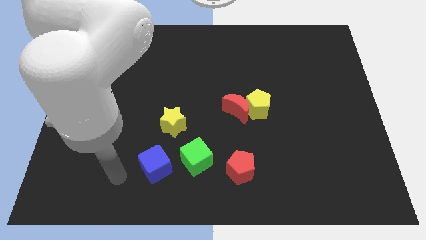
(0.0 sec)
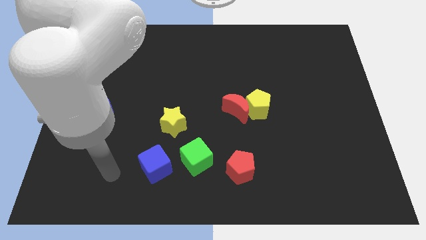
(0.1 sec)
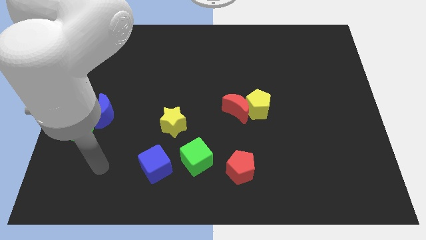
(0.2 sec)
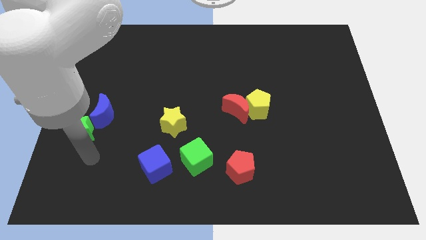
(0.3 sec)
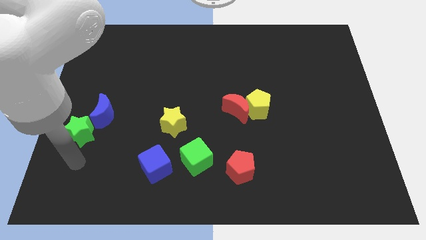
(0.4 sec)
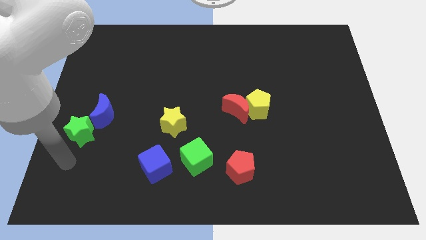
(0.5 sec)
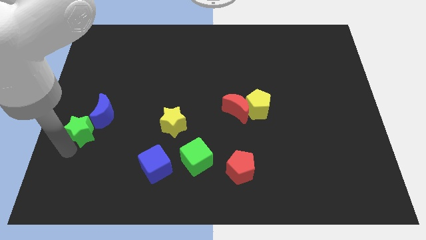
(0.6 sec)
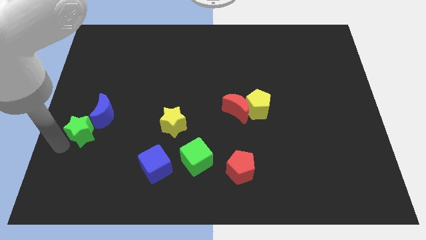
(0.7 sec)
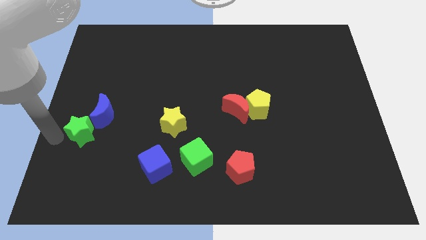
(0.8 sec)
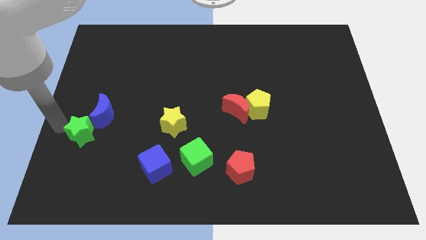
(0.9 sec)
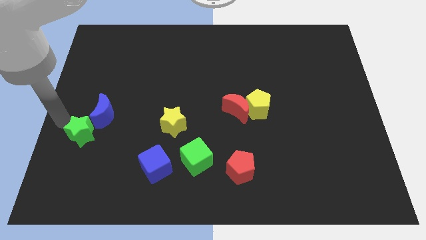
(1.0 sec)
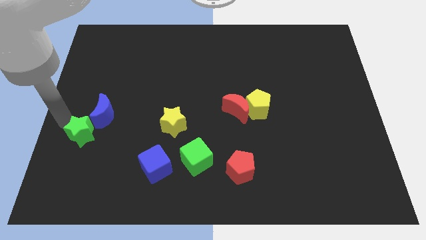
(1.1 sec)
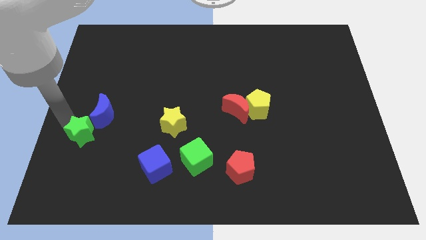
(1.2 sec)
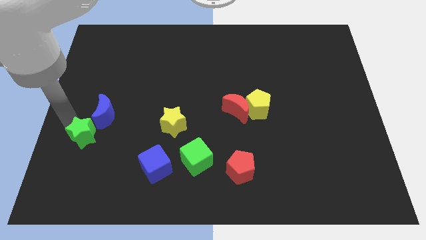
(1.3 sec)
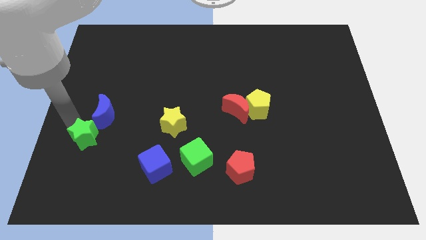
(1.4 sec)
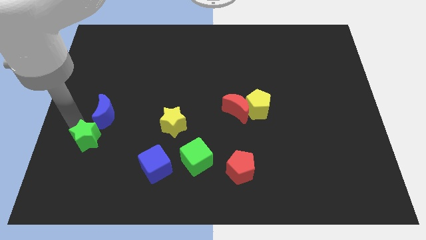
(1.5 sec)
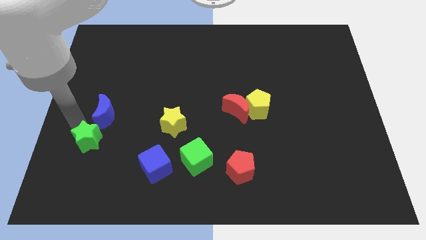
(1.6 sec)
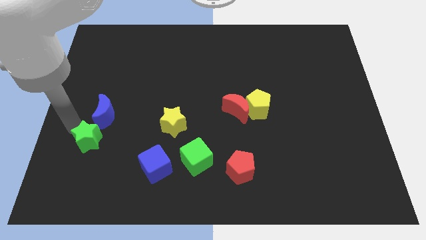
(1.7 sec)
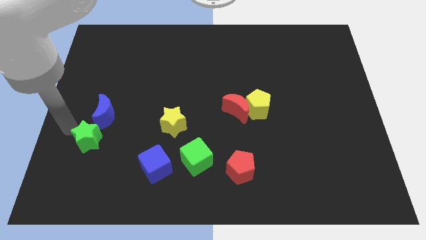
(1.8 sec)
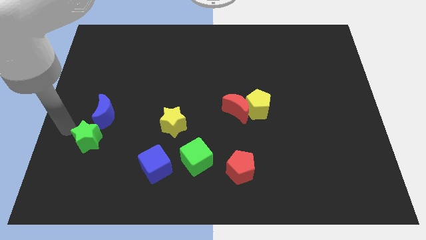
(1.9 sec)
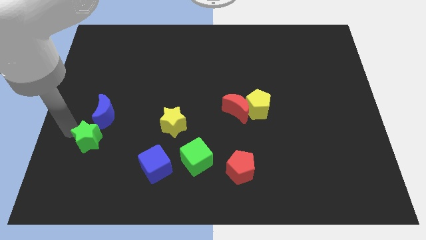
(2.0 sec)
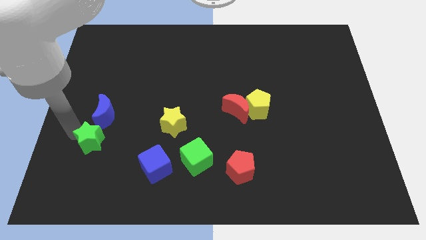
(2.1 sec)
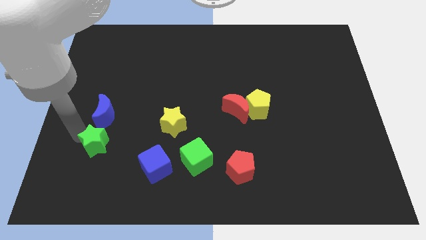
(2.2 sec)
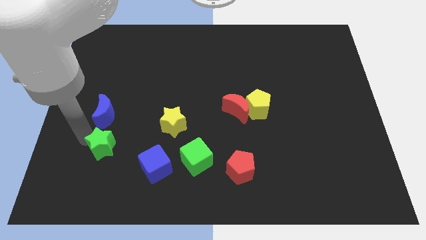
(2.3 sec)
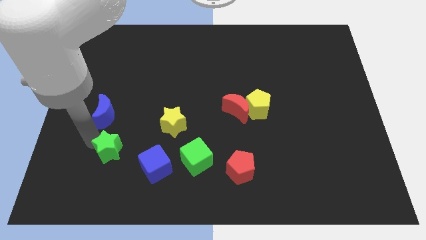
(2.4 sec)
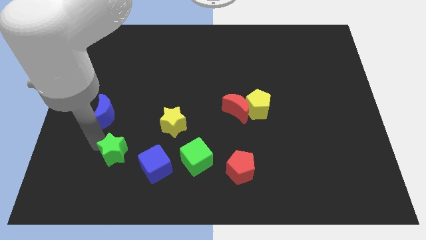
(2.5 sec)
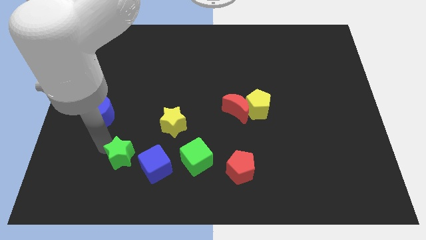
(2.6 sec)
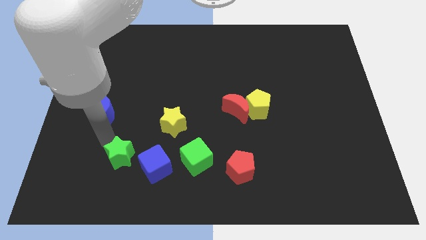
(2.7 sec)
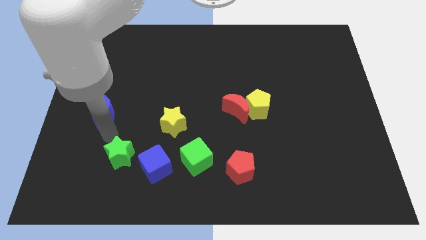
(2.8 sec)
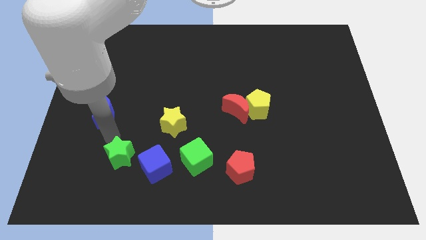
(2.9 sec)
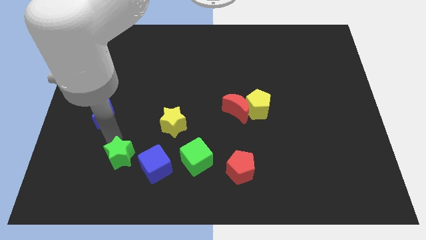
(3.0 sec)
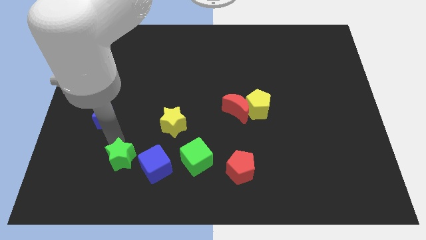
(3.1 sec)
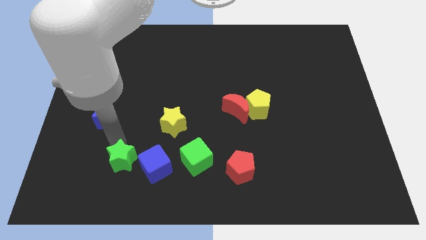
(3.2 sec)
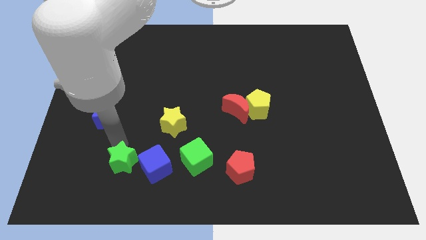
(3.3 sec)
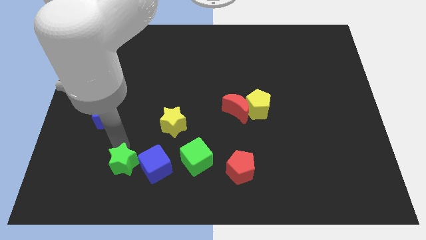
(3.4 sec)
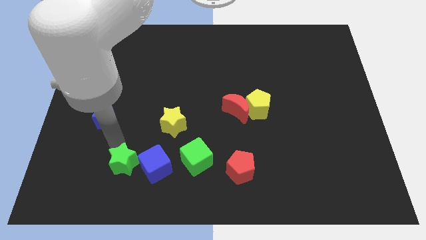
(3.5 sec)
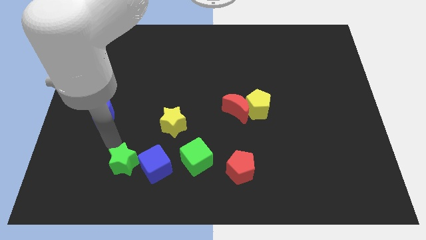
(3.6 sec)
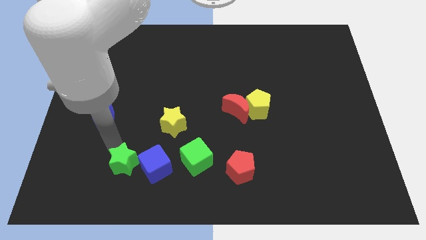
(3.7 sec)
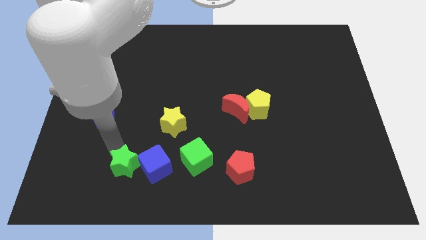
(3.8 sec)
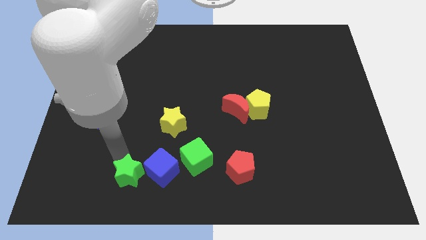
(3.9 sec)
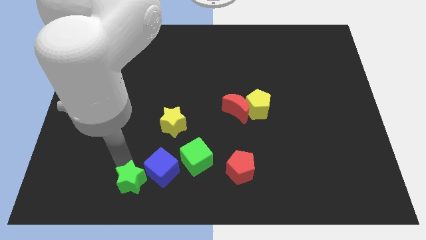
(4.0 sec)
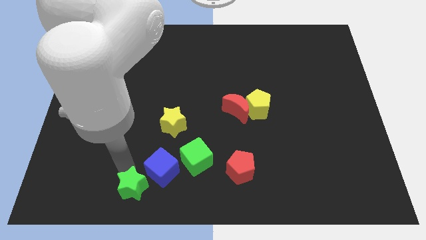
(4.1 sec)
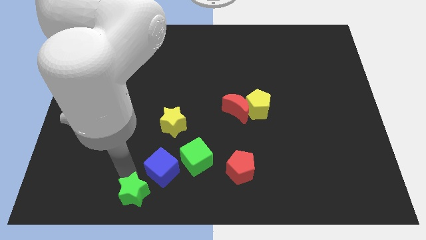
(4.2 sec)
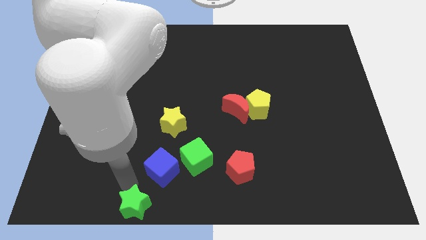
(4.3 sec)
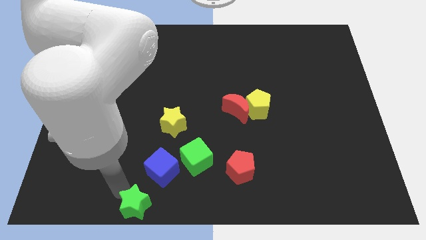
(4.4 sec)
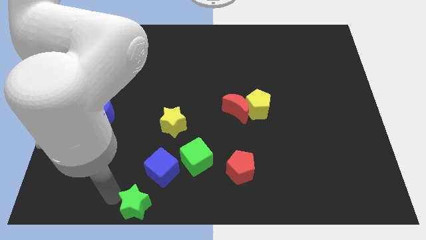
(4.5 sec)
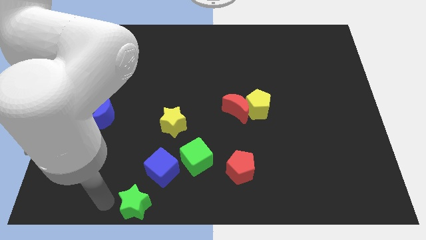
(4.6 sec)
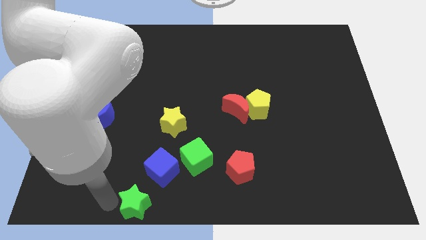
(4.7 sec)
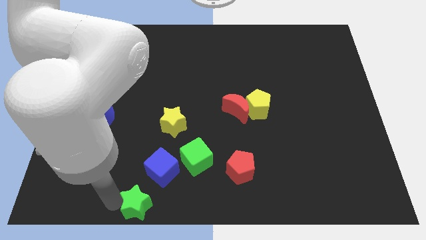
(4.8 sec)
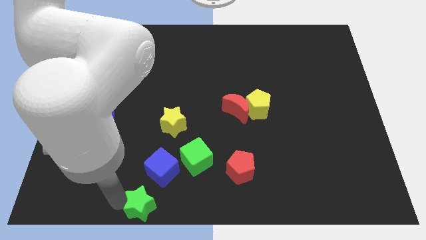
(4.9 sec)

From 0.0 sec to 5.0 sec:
push the green star to the bottom

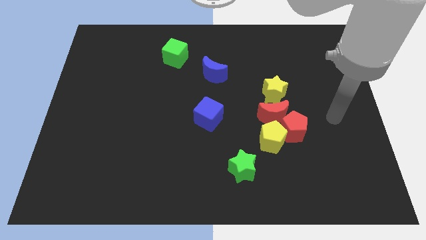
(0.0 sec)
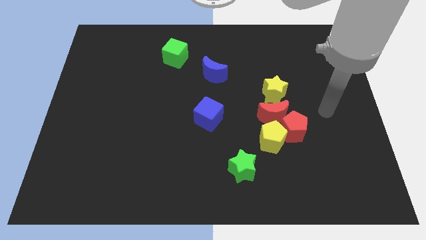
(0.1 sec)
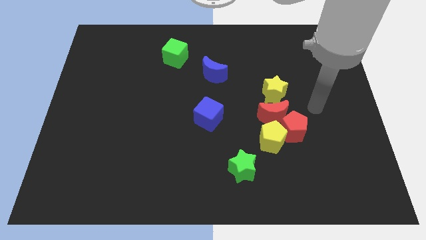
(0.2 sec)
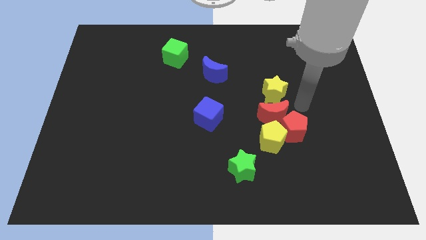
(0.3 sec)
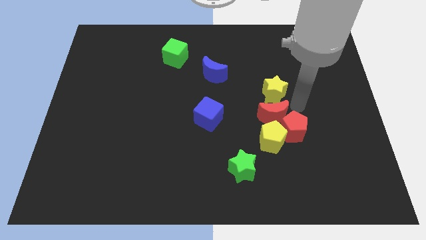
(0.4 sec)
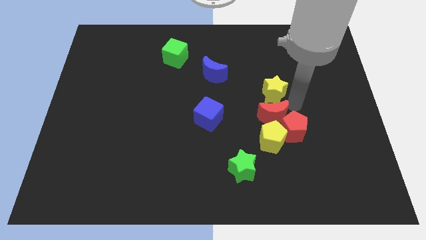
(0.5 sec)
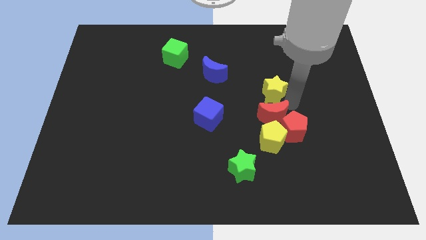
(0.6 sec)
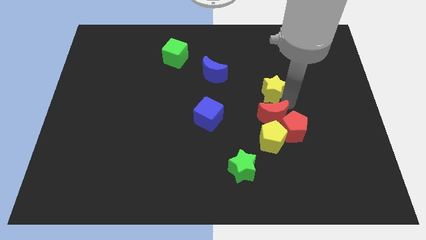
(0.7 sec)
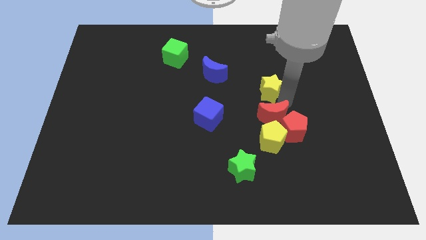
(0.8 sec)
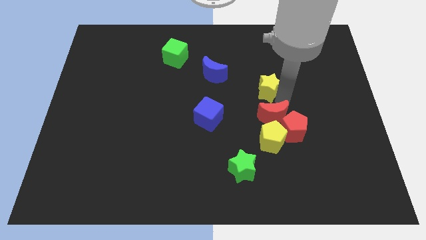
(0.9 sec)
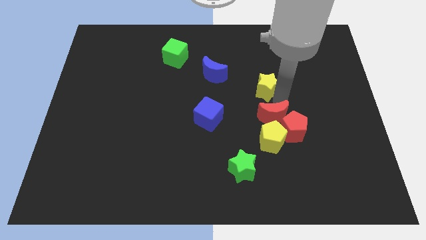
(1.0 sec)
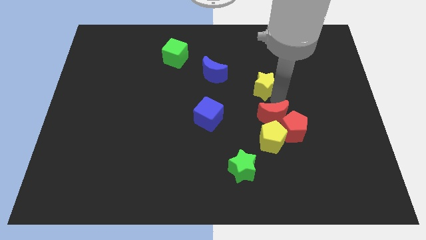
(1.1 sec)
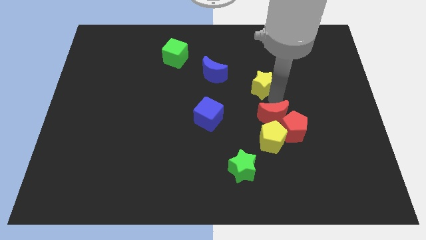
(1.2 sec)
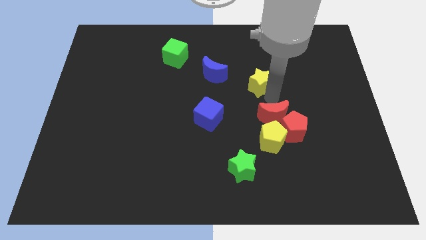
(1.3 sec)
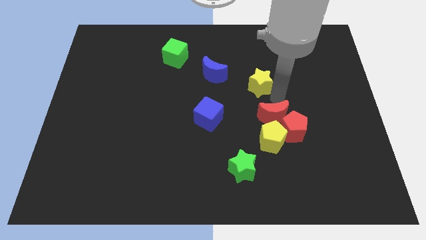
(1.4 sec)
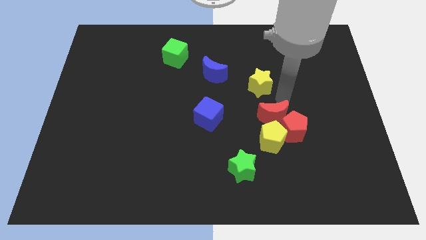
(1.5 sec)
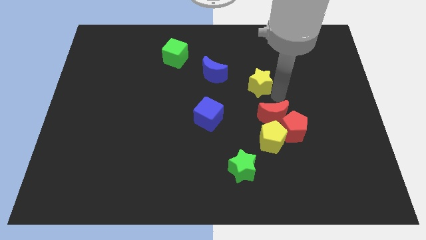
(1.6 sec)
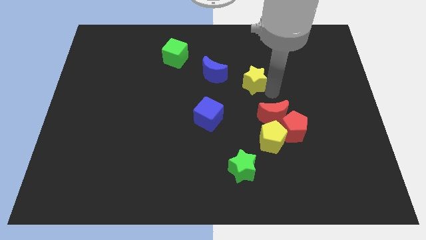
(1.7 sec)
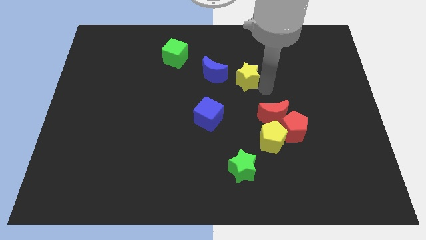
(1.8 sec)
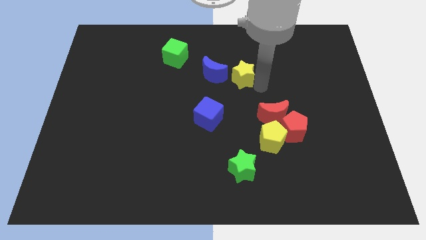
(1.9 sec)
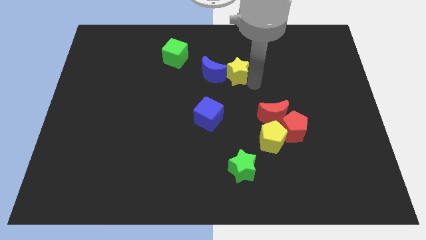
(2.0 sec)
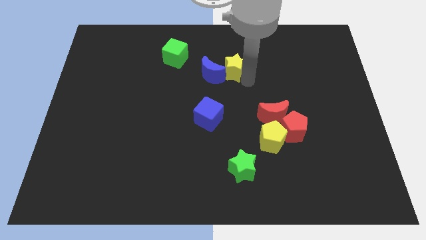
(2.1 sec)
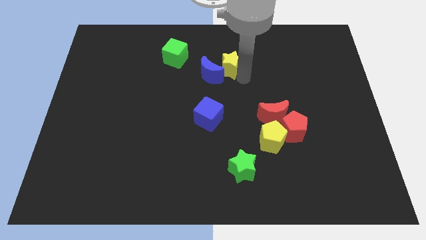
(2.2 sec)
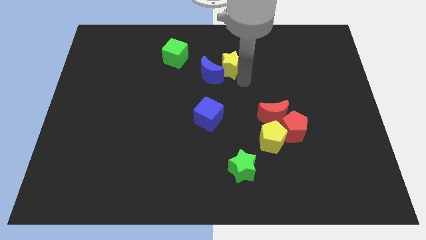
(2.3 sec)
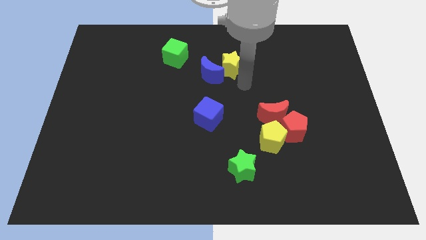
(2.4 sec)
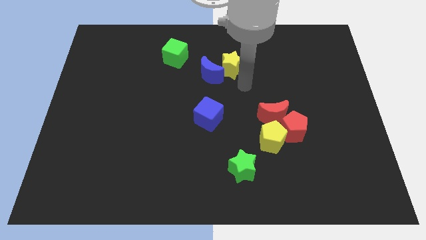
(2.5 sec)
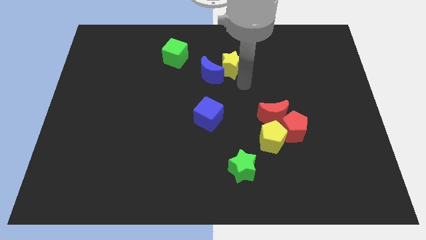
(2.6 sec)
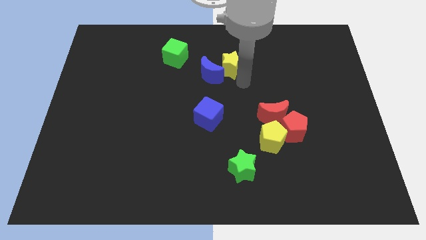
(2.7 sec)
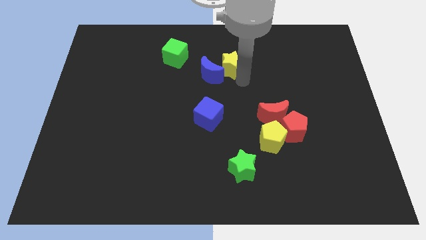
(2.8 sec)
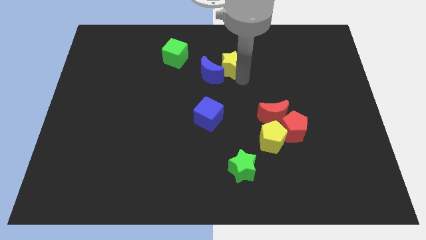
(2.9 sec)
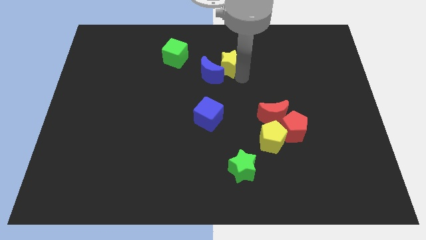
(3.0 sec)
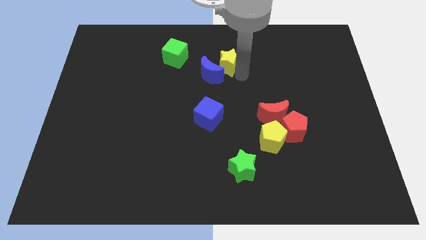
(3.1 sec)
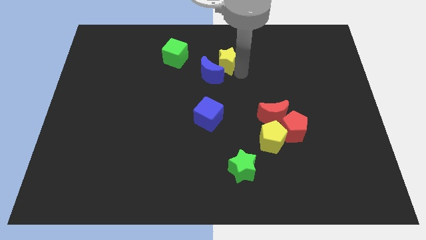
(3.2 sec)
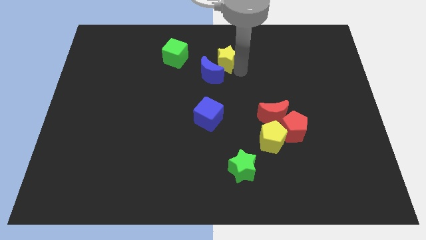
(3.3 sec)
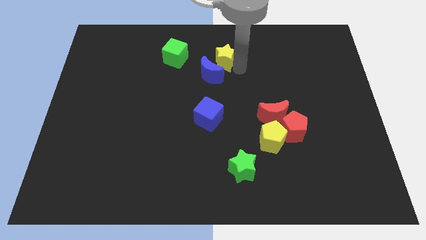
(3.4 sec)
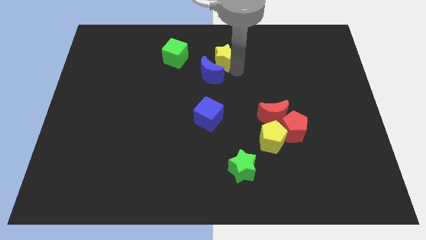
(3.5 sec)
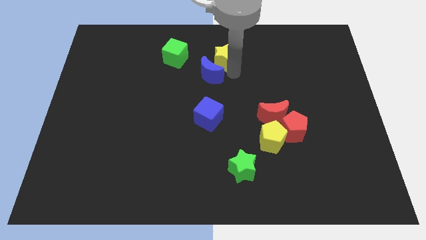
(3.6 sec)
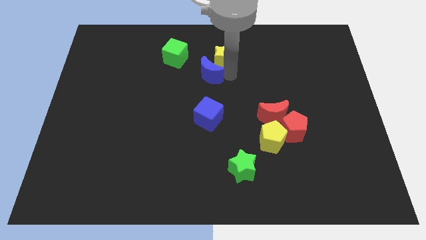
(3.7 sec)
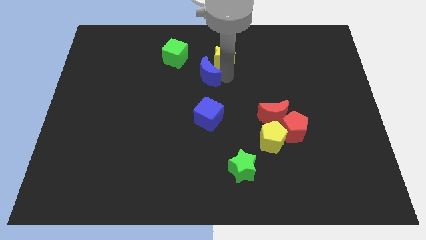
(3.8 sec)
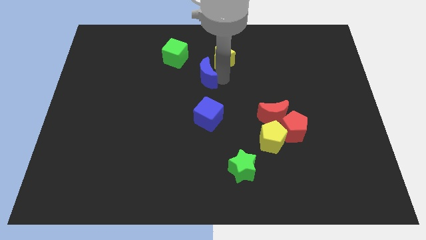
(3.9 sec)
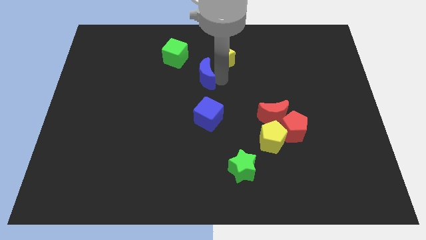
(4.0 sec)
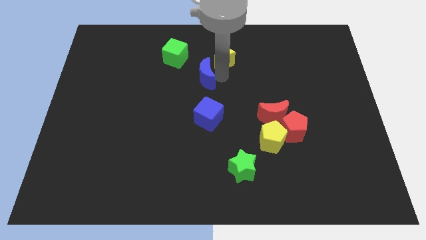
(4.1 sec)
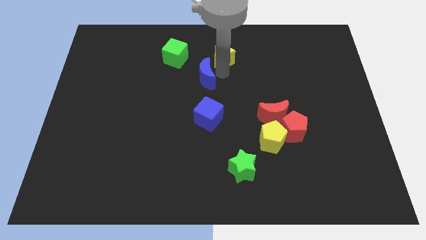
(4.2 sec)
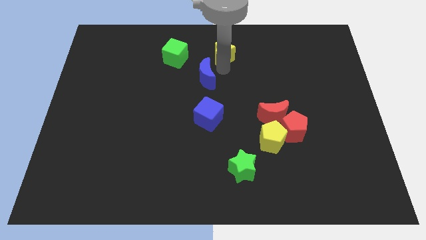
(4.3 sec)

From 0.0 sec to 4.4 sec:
push the yellow star to the top
